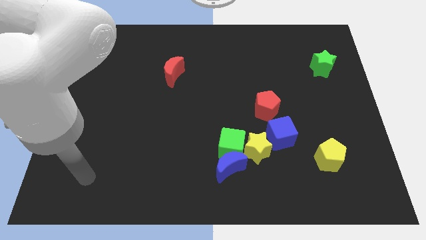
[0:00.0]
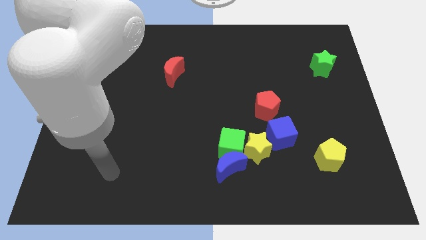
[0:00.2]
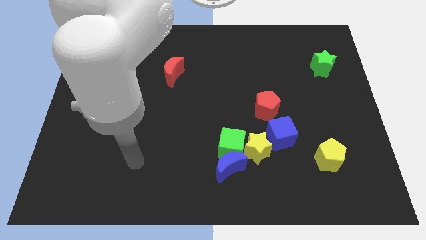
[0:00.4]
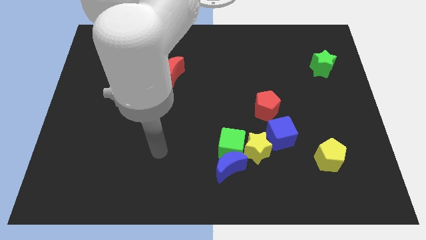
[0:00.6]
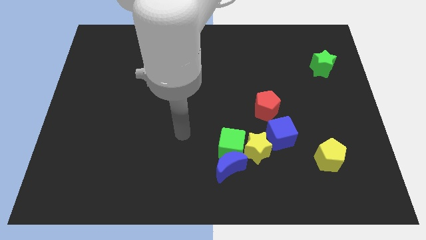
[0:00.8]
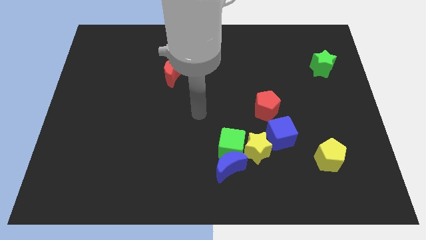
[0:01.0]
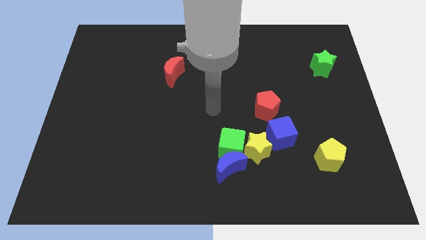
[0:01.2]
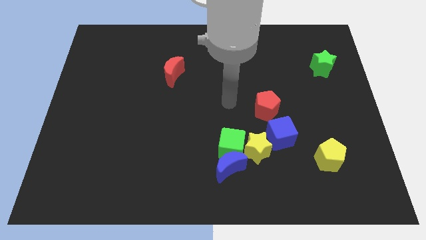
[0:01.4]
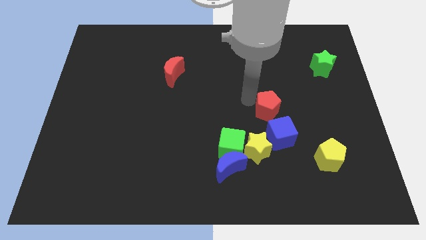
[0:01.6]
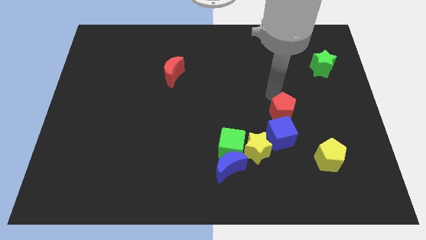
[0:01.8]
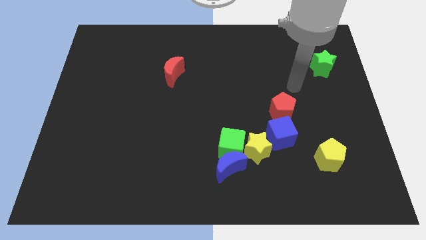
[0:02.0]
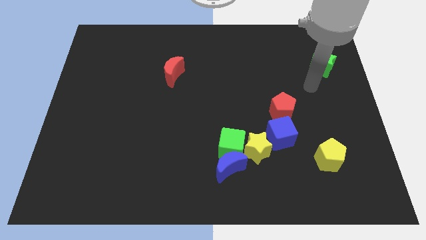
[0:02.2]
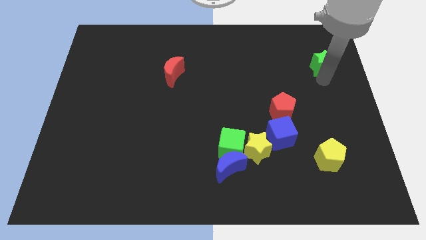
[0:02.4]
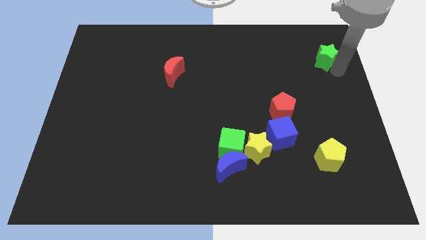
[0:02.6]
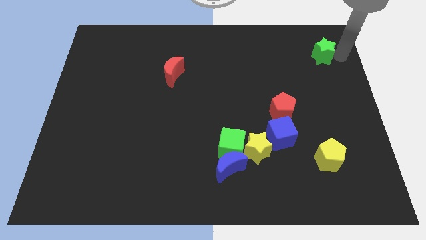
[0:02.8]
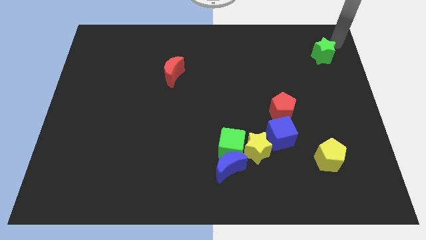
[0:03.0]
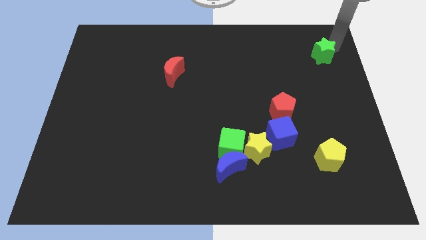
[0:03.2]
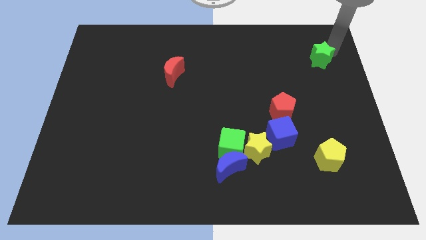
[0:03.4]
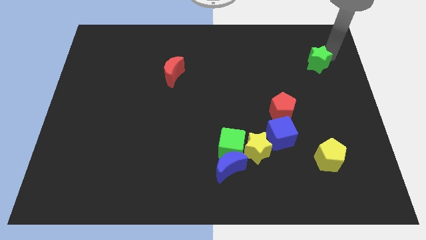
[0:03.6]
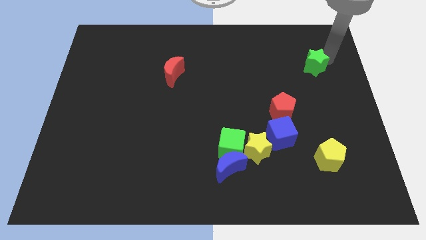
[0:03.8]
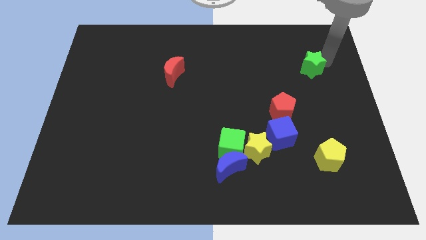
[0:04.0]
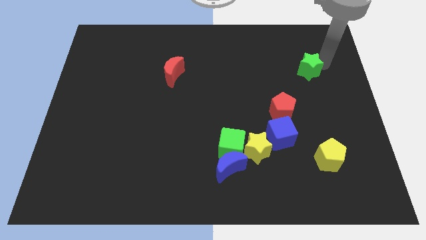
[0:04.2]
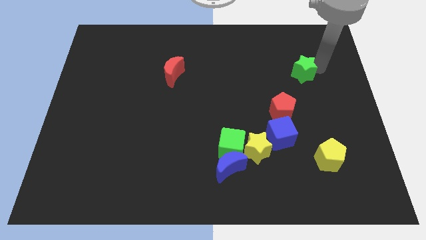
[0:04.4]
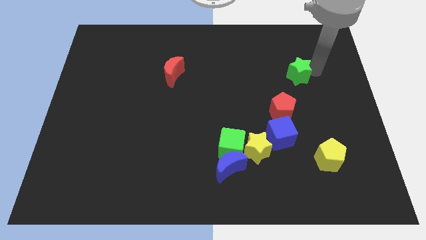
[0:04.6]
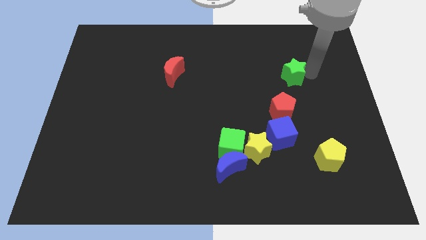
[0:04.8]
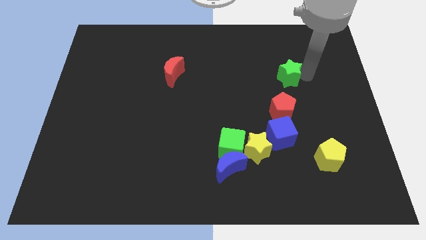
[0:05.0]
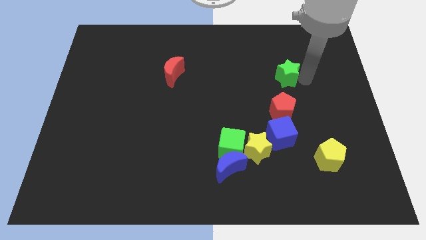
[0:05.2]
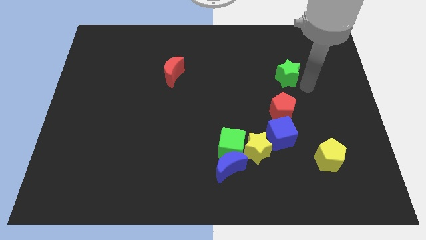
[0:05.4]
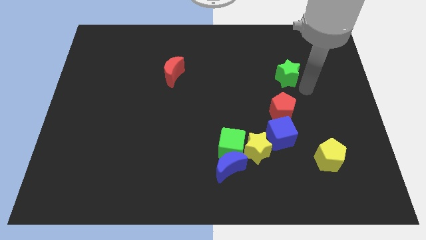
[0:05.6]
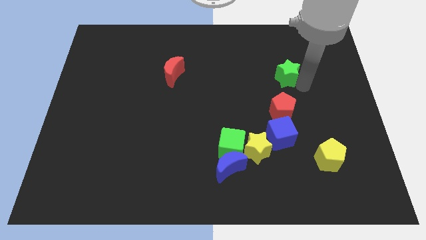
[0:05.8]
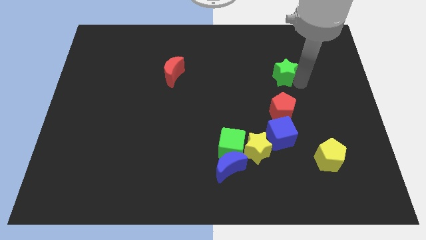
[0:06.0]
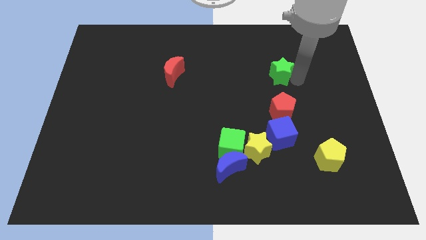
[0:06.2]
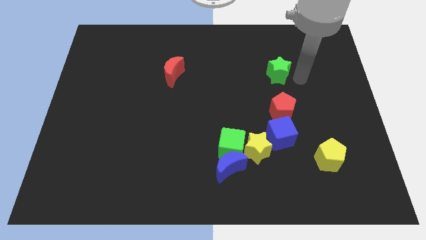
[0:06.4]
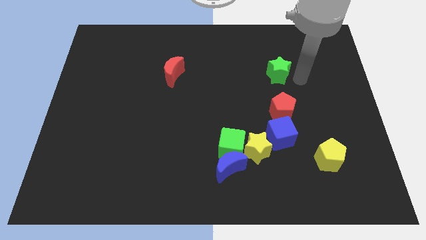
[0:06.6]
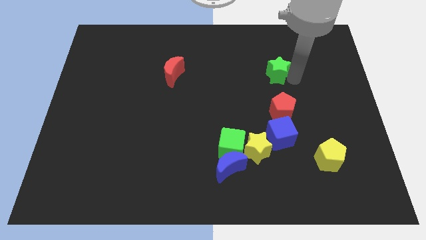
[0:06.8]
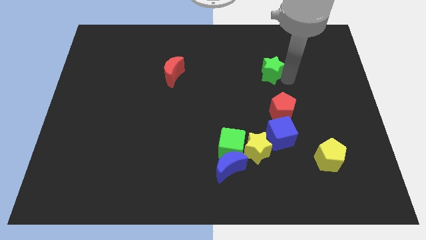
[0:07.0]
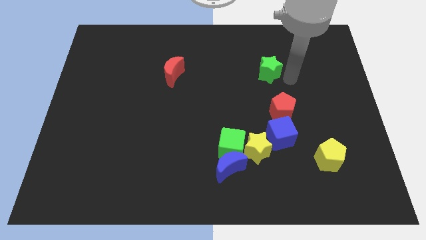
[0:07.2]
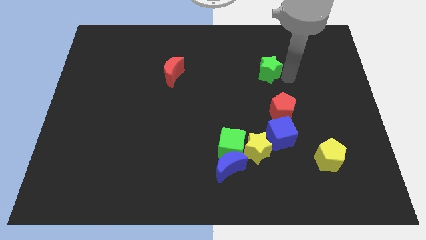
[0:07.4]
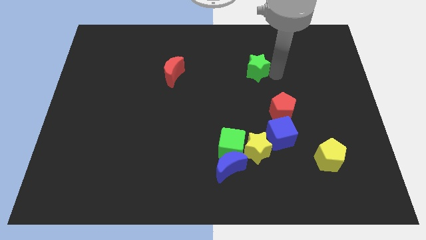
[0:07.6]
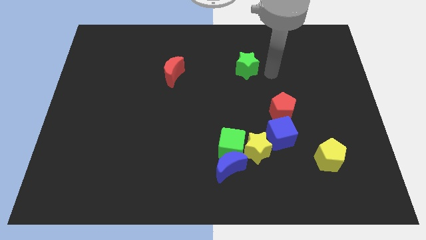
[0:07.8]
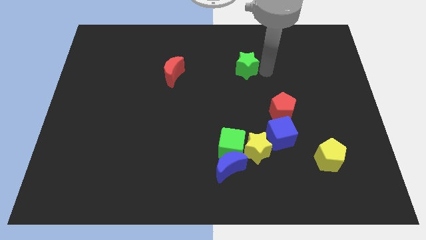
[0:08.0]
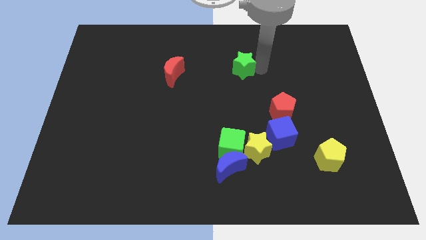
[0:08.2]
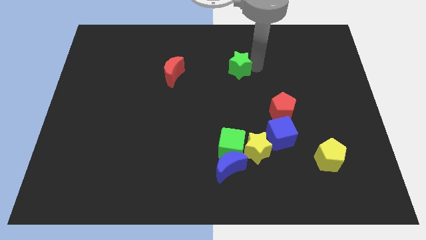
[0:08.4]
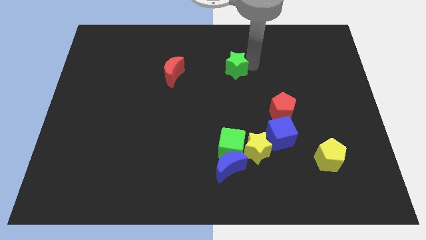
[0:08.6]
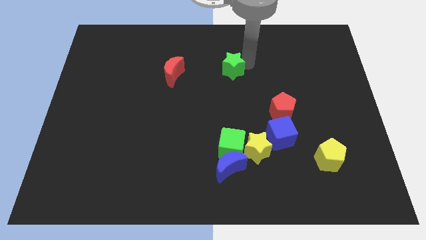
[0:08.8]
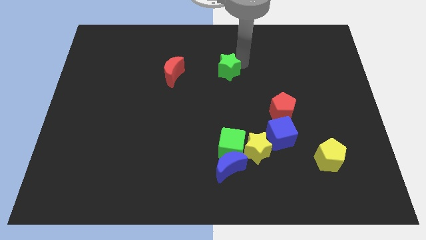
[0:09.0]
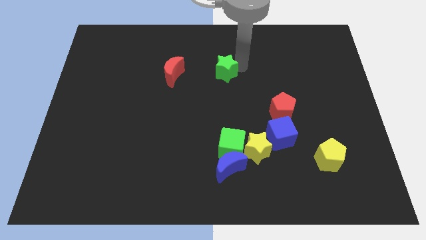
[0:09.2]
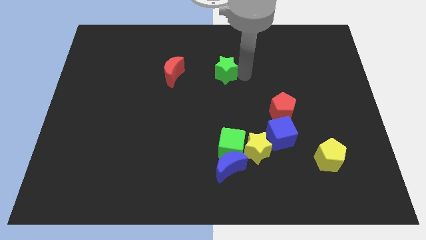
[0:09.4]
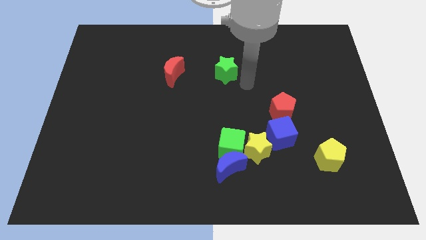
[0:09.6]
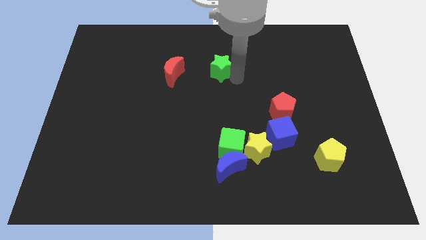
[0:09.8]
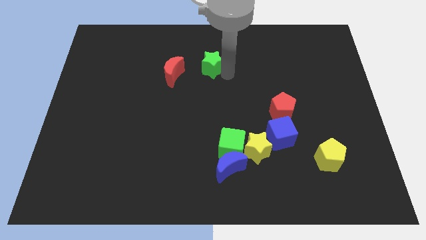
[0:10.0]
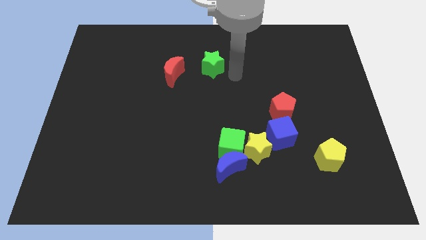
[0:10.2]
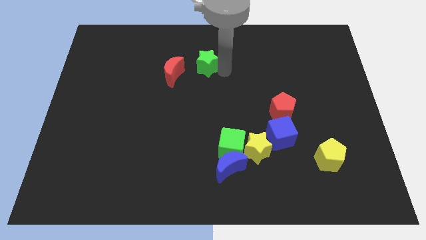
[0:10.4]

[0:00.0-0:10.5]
slide the green star diagonally up and to the right of the red moon

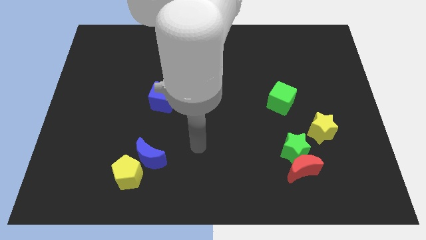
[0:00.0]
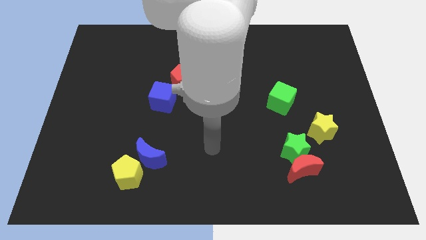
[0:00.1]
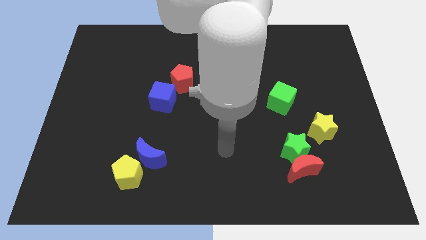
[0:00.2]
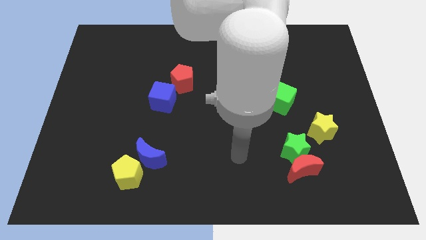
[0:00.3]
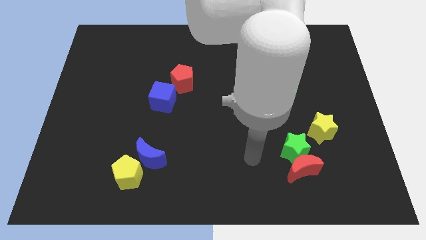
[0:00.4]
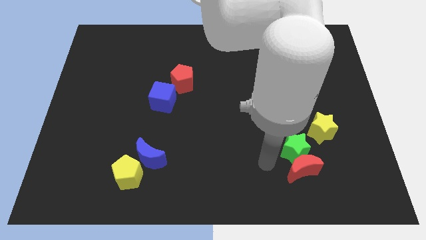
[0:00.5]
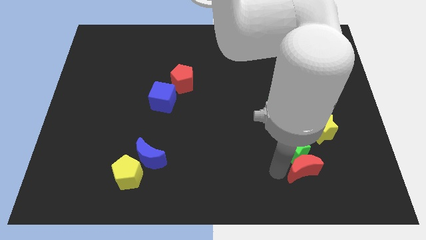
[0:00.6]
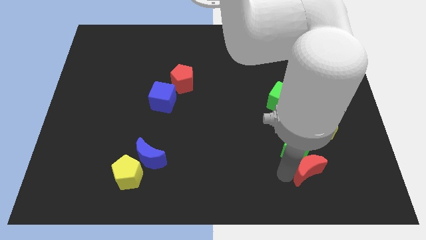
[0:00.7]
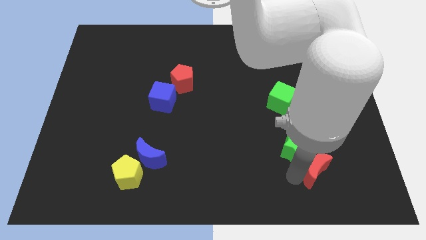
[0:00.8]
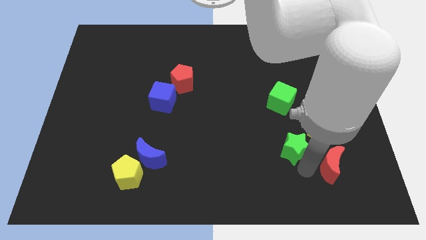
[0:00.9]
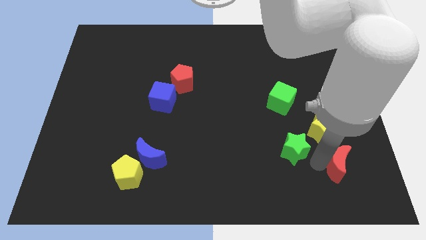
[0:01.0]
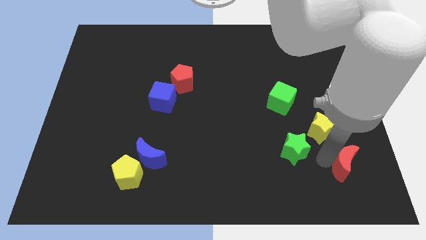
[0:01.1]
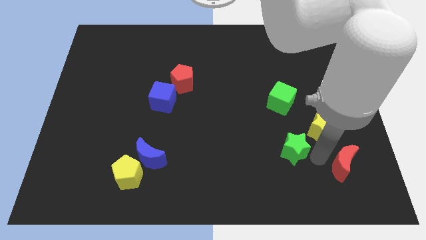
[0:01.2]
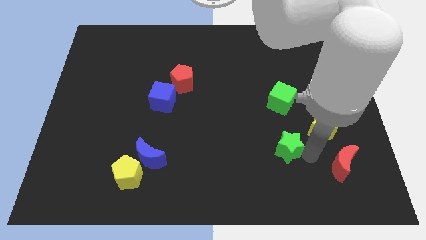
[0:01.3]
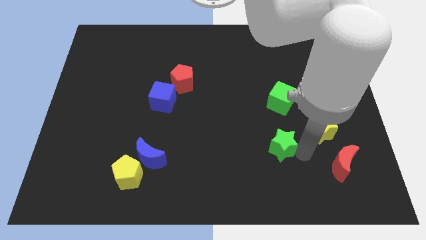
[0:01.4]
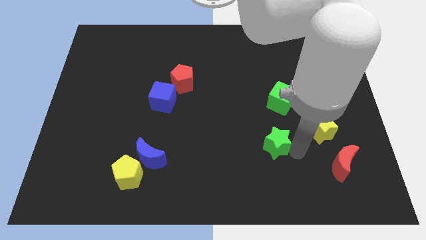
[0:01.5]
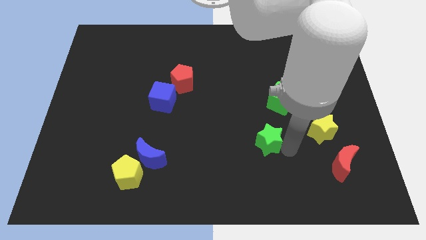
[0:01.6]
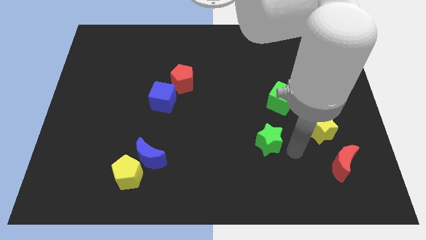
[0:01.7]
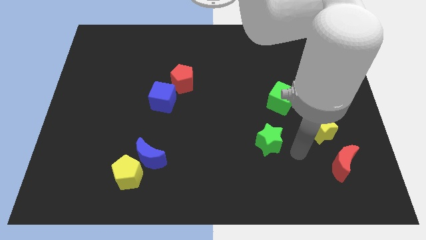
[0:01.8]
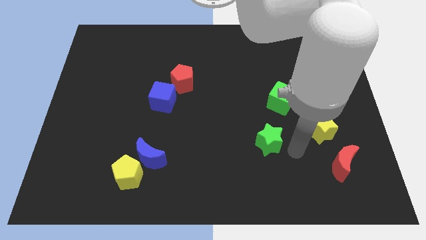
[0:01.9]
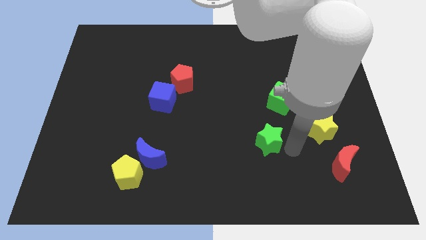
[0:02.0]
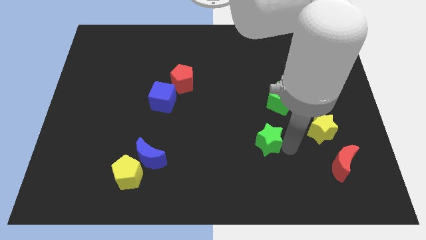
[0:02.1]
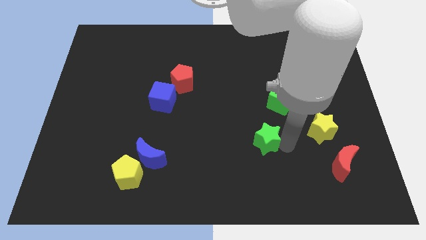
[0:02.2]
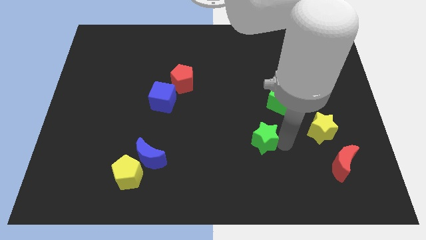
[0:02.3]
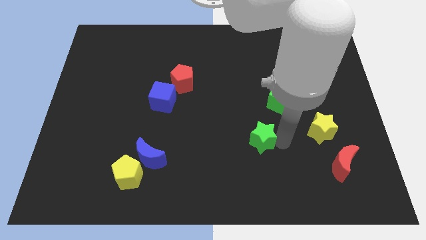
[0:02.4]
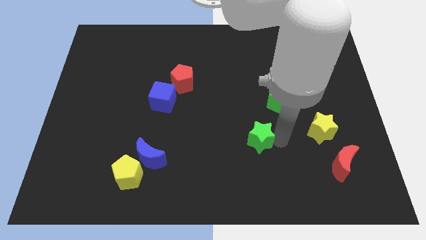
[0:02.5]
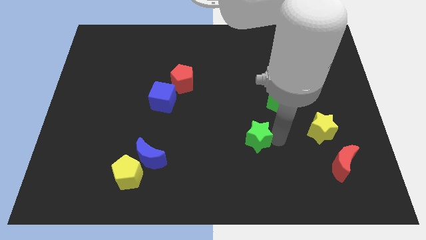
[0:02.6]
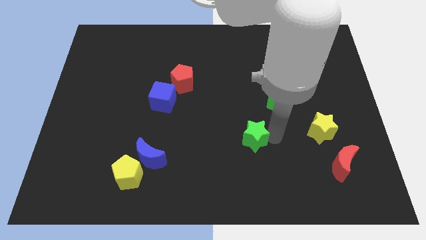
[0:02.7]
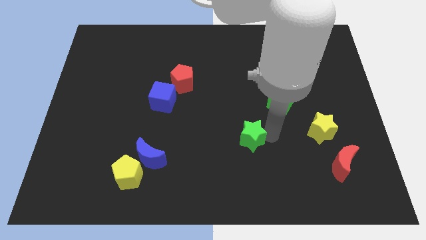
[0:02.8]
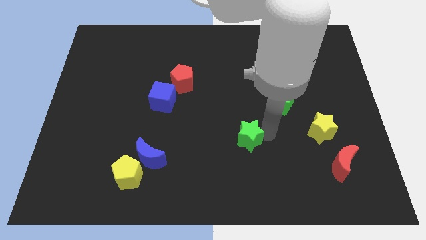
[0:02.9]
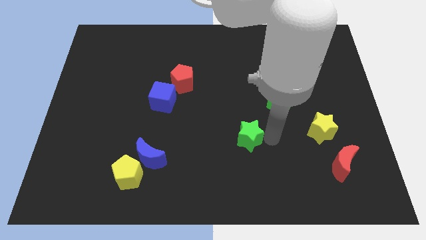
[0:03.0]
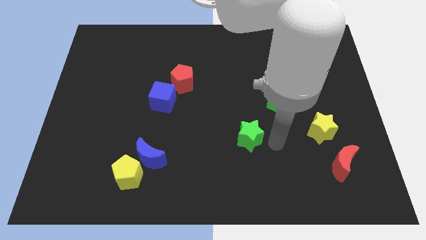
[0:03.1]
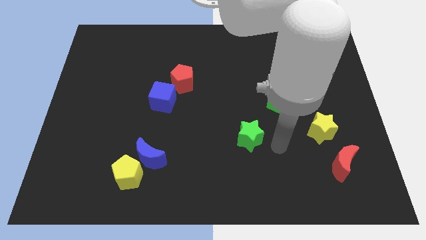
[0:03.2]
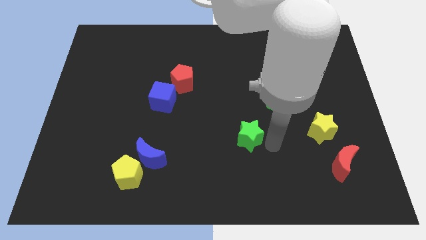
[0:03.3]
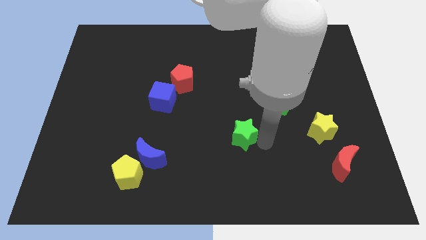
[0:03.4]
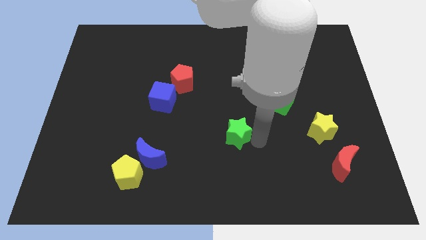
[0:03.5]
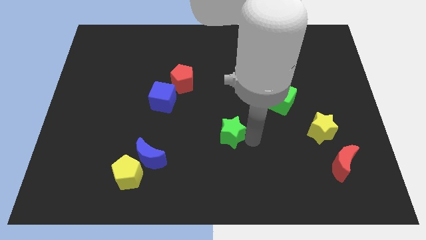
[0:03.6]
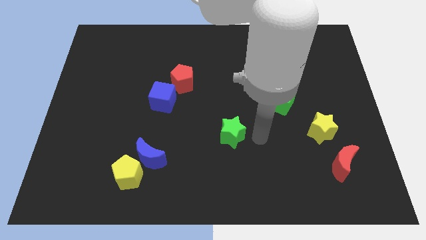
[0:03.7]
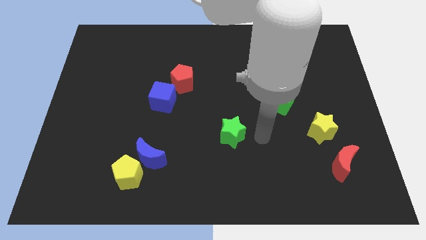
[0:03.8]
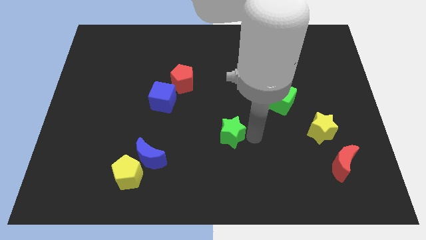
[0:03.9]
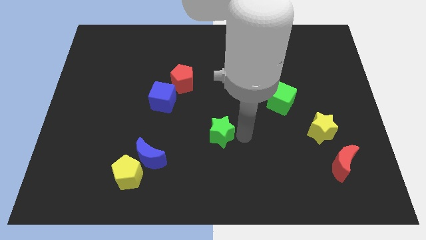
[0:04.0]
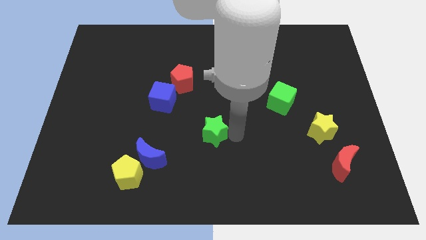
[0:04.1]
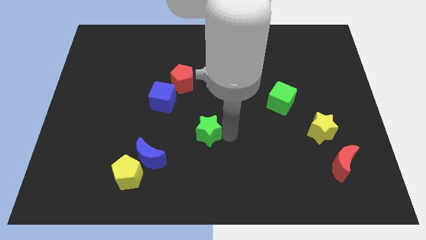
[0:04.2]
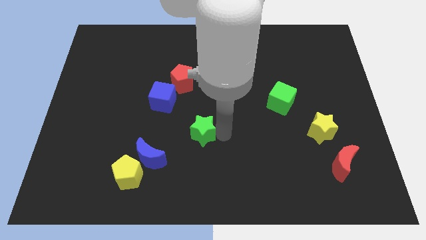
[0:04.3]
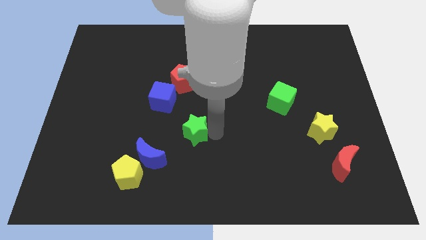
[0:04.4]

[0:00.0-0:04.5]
move the green star to the top right side of the blue moon
